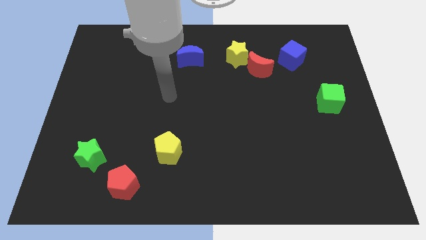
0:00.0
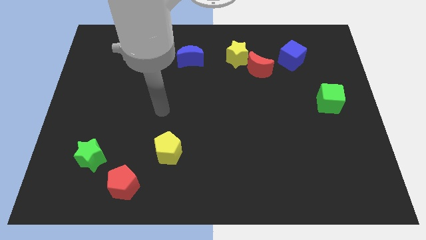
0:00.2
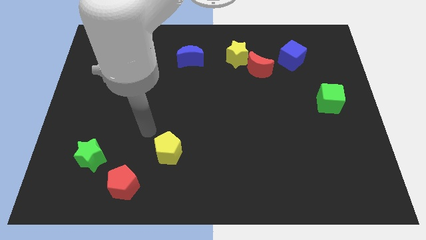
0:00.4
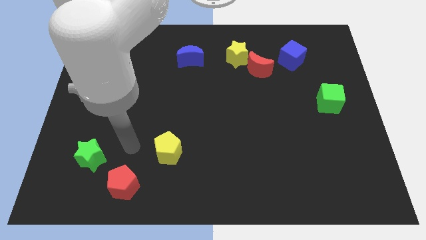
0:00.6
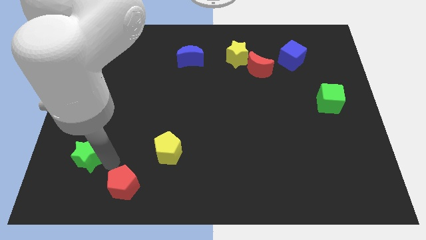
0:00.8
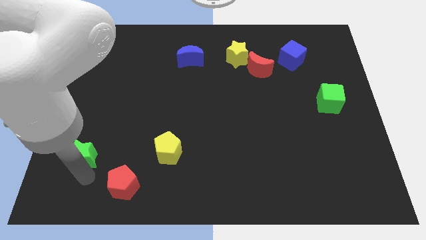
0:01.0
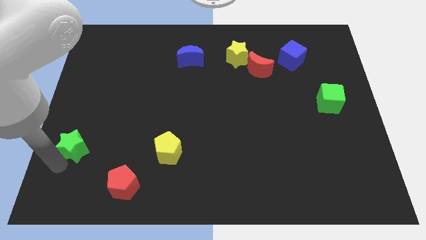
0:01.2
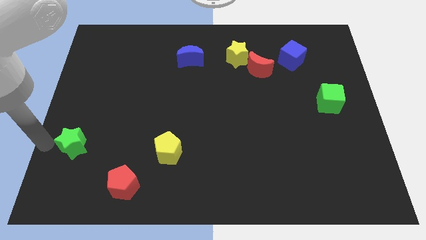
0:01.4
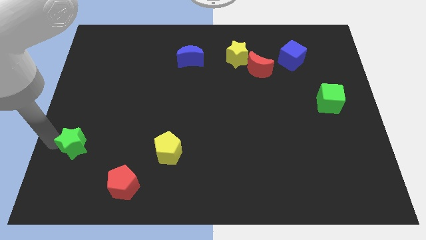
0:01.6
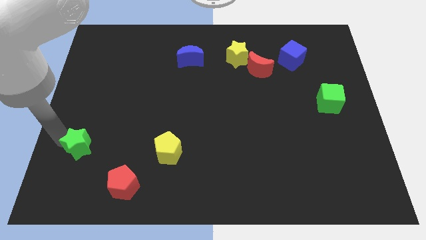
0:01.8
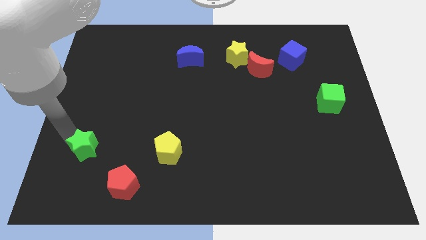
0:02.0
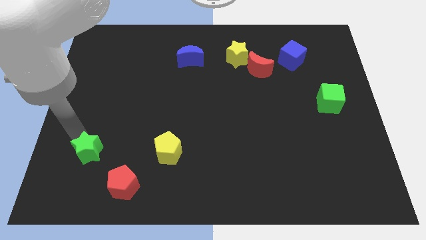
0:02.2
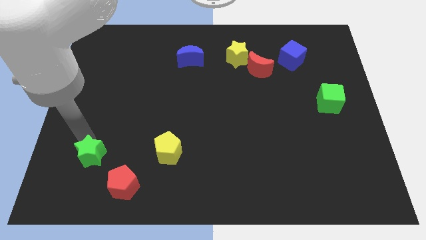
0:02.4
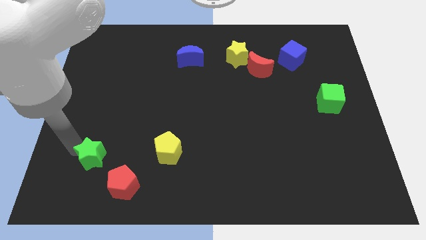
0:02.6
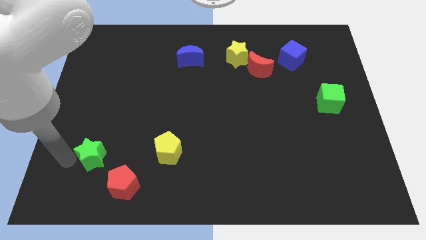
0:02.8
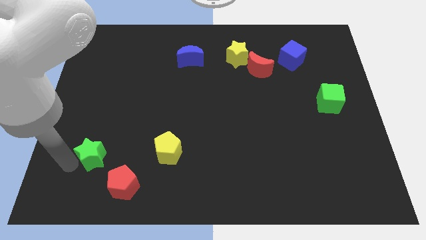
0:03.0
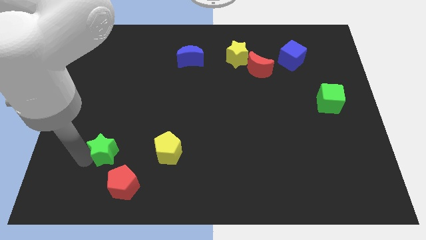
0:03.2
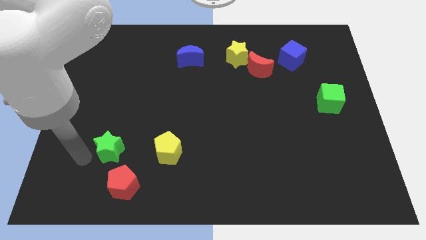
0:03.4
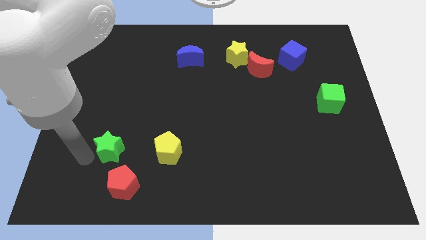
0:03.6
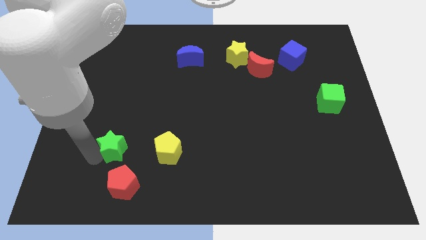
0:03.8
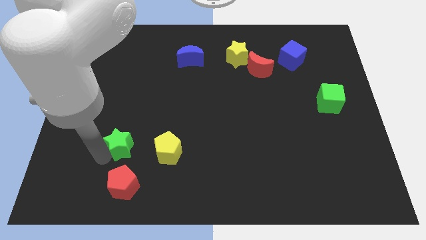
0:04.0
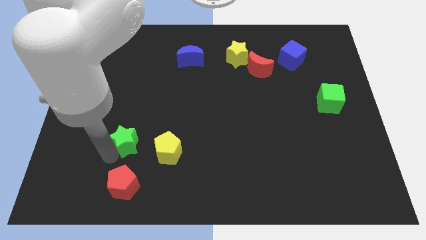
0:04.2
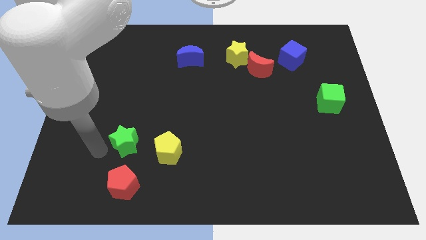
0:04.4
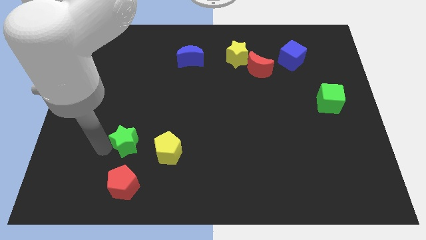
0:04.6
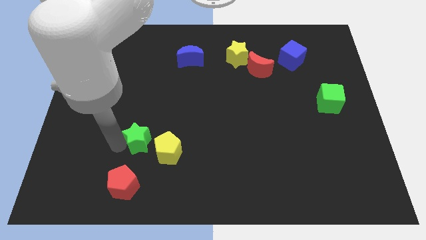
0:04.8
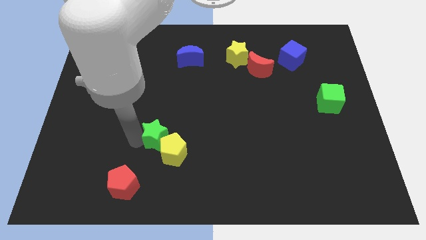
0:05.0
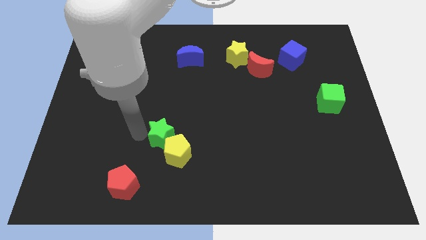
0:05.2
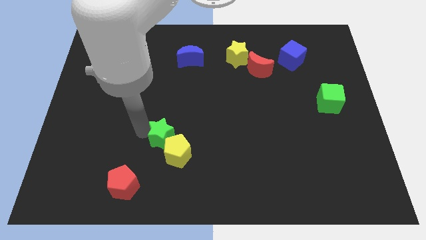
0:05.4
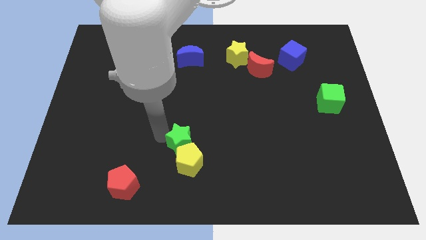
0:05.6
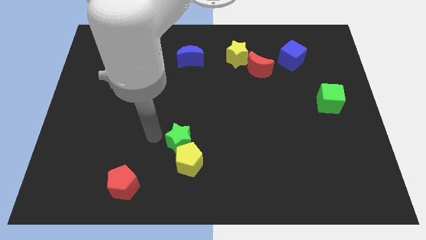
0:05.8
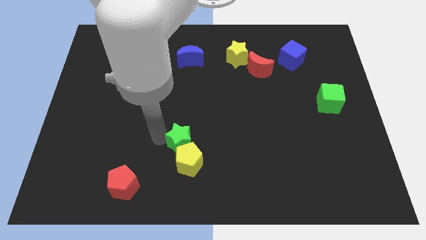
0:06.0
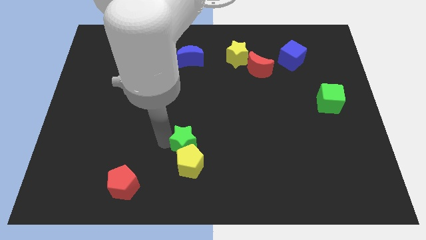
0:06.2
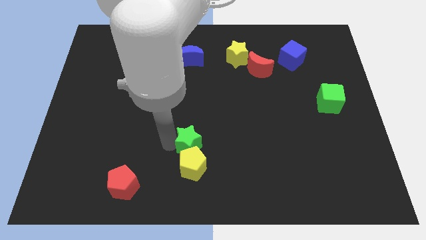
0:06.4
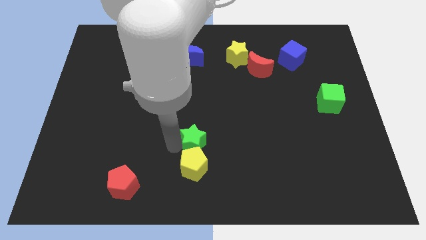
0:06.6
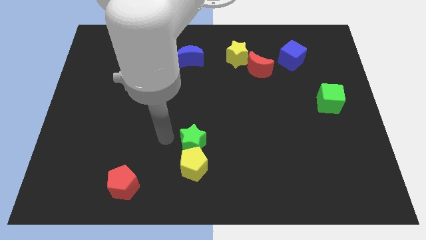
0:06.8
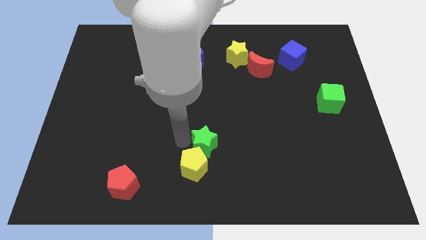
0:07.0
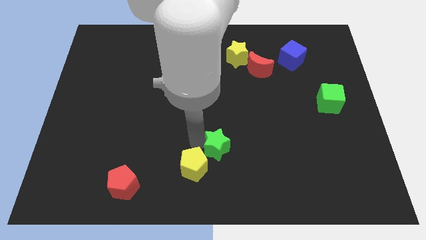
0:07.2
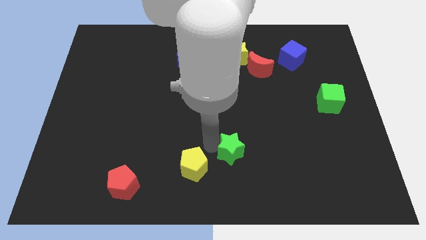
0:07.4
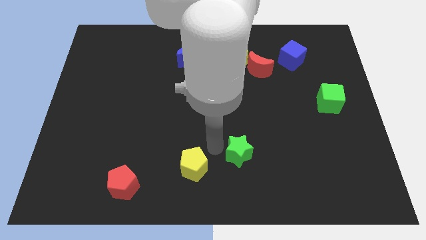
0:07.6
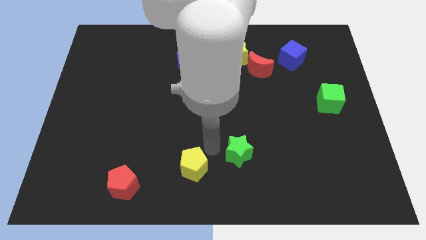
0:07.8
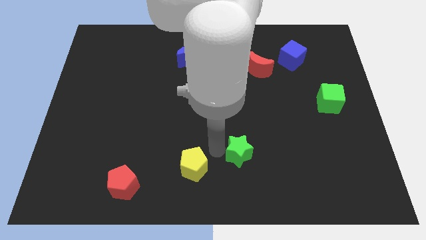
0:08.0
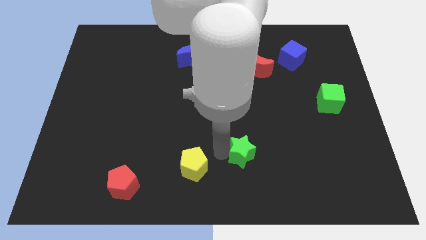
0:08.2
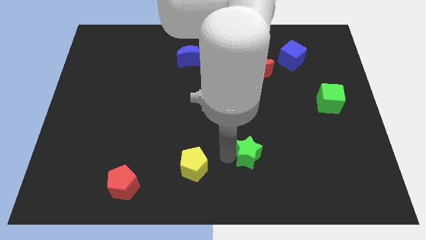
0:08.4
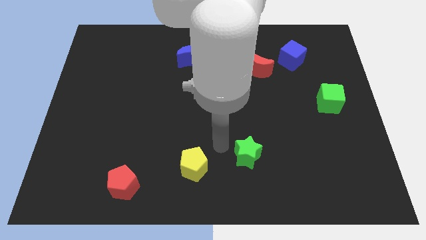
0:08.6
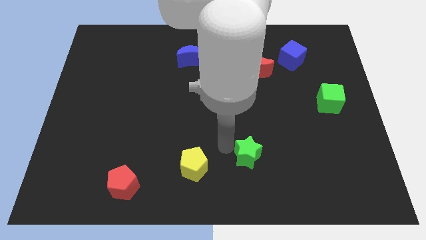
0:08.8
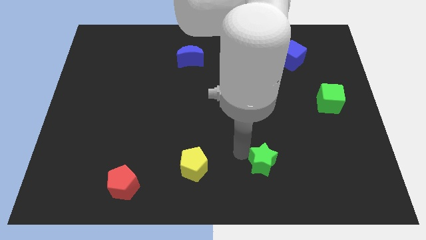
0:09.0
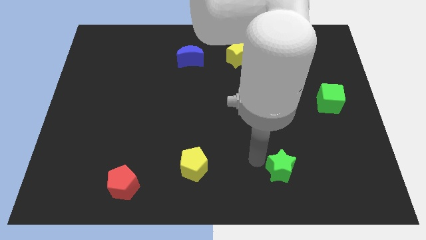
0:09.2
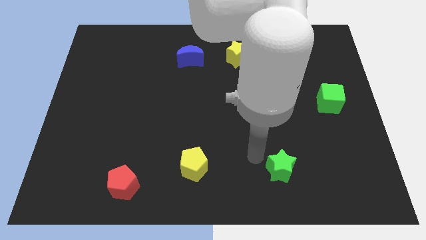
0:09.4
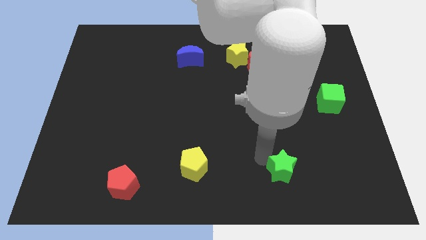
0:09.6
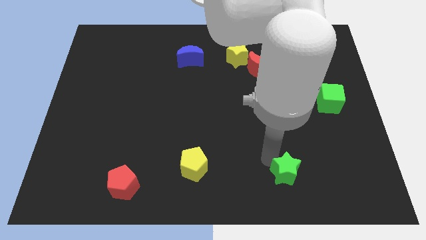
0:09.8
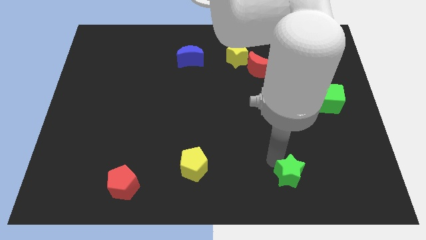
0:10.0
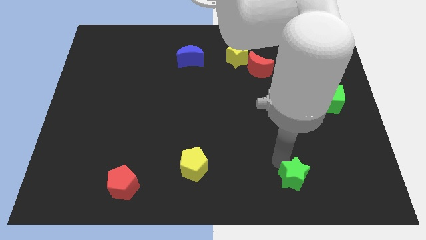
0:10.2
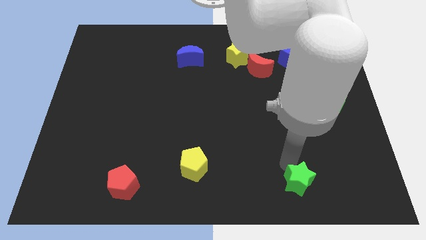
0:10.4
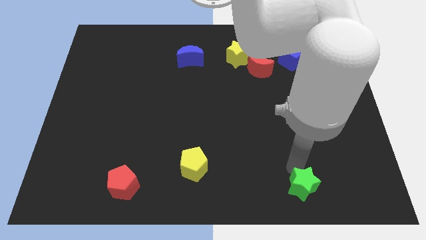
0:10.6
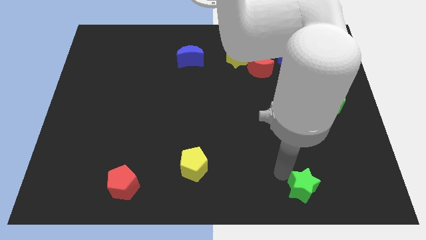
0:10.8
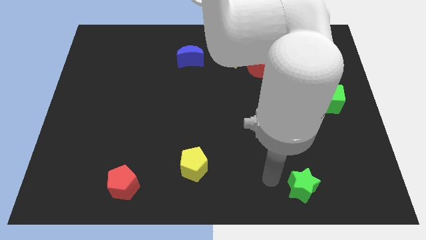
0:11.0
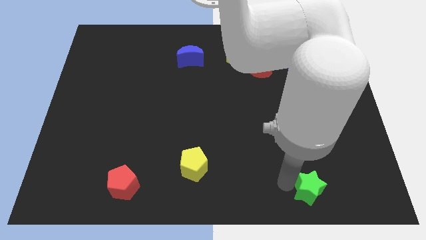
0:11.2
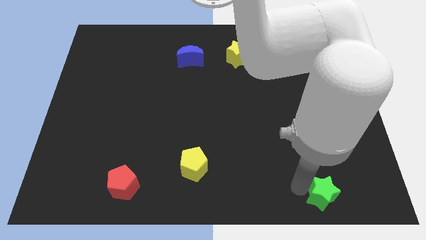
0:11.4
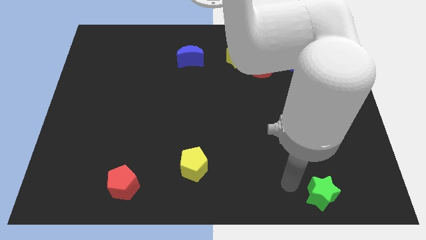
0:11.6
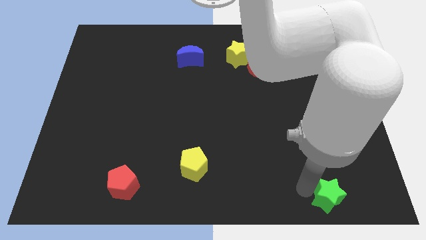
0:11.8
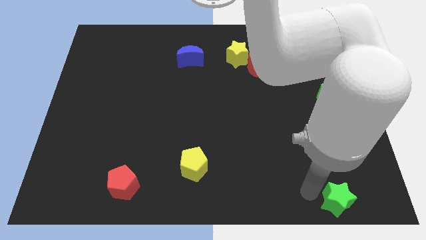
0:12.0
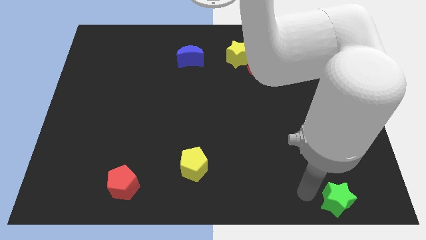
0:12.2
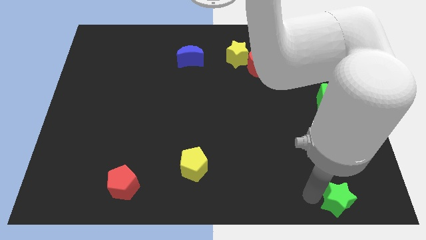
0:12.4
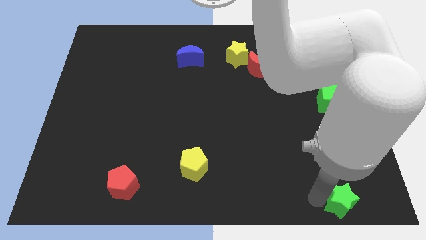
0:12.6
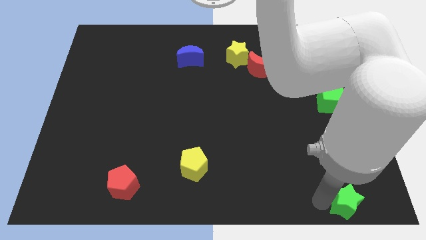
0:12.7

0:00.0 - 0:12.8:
slide the green star to the bottom right corner

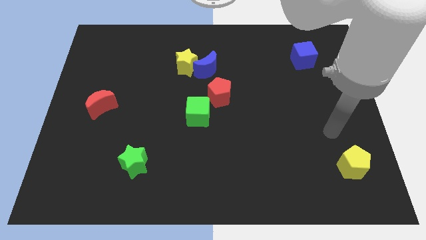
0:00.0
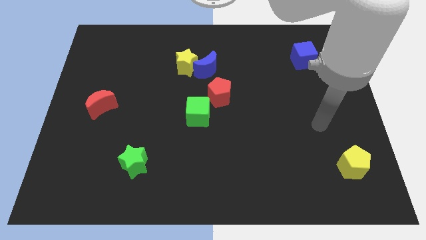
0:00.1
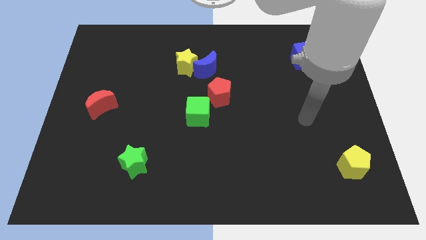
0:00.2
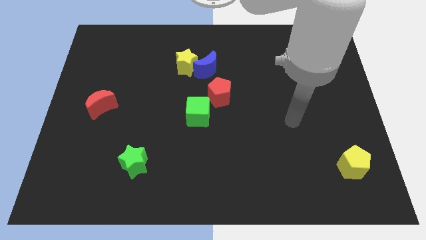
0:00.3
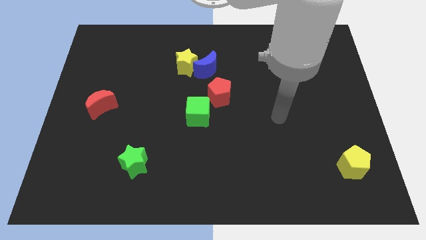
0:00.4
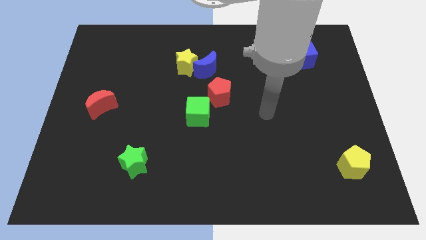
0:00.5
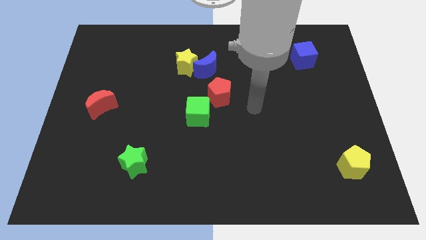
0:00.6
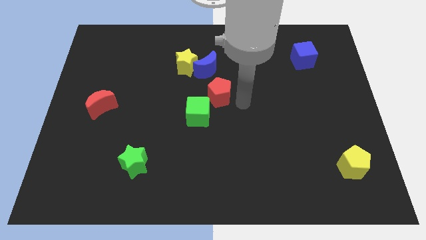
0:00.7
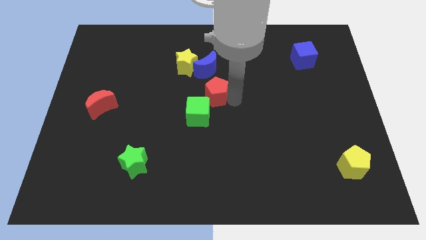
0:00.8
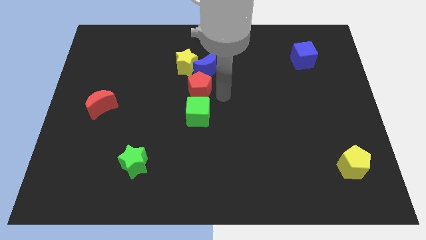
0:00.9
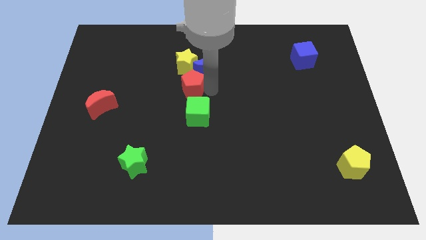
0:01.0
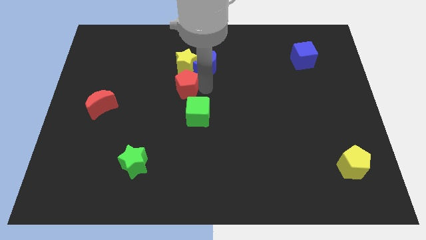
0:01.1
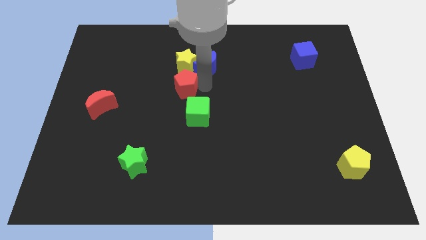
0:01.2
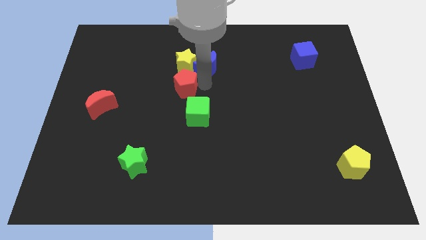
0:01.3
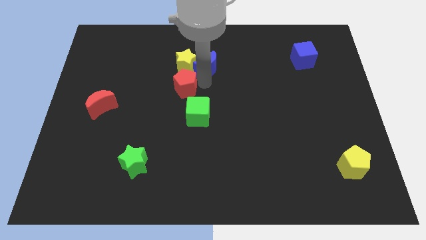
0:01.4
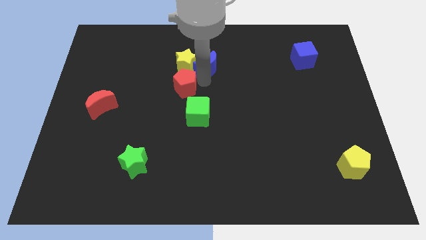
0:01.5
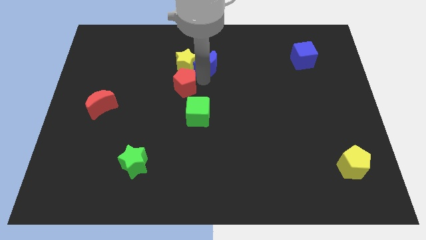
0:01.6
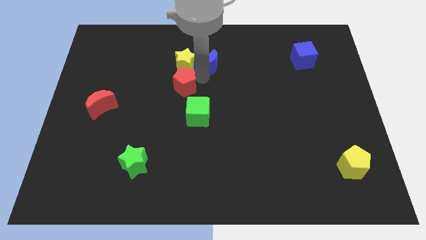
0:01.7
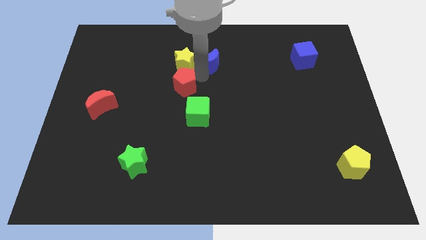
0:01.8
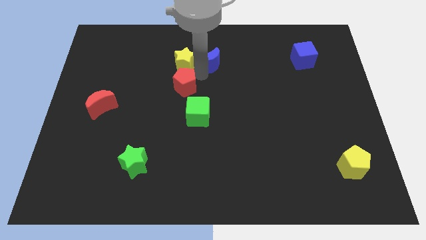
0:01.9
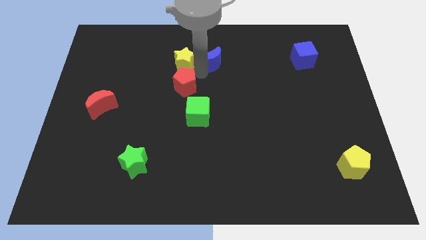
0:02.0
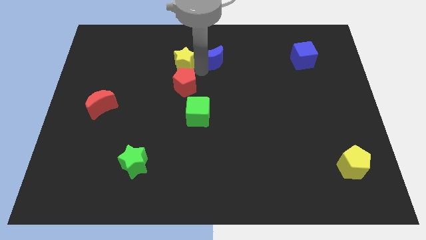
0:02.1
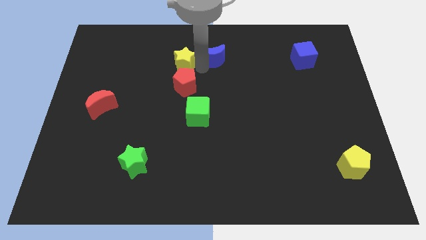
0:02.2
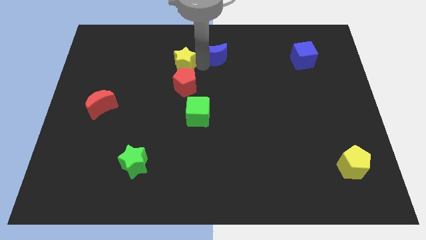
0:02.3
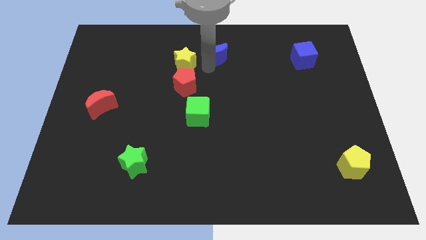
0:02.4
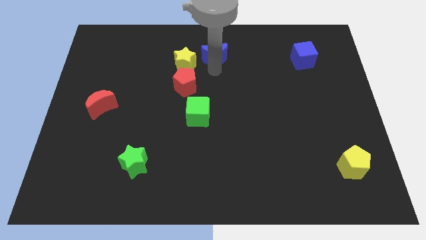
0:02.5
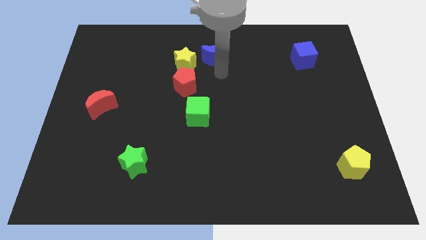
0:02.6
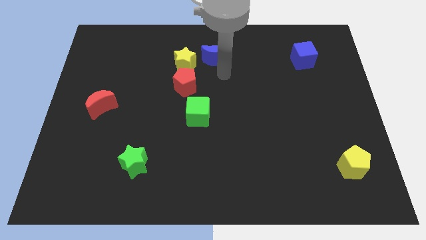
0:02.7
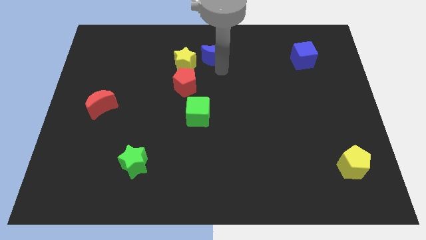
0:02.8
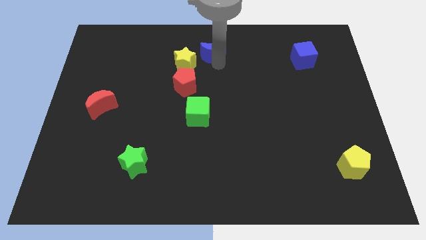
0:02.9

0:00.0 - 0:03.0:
slide the blue moon to the top
